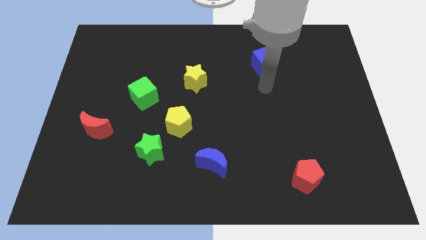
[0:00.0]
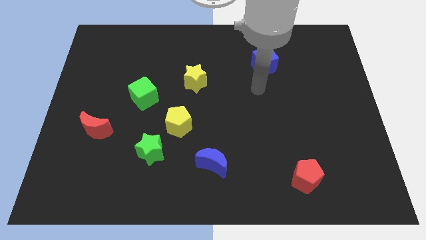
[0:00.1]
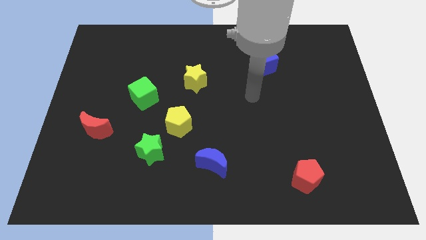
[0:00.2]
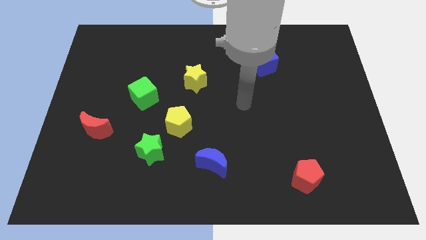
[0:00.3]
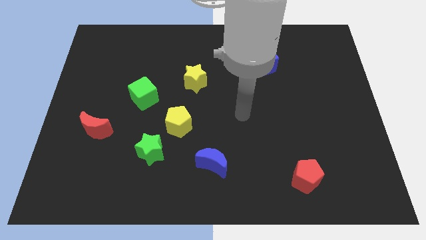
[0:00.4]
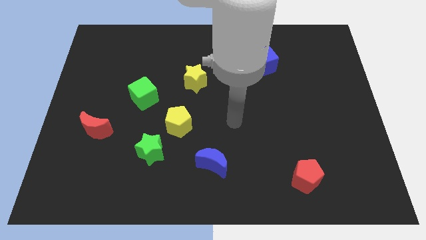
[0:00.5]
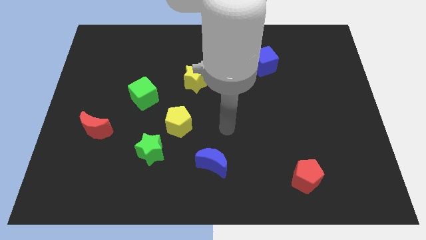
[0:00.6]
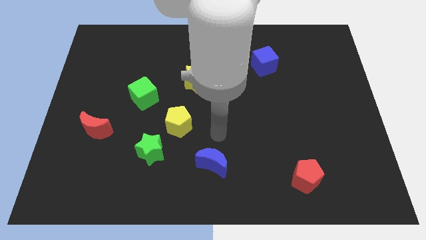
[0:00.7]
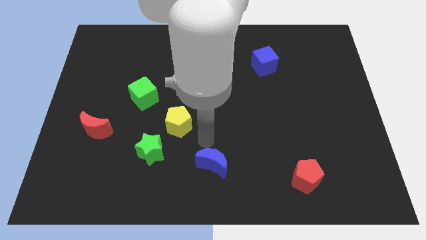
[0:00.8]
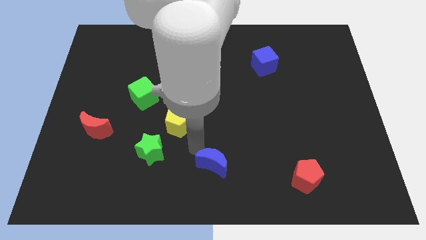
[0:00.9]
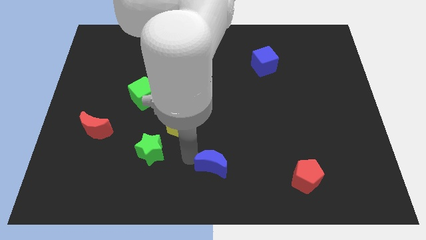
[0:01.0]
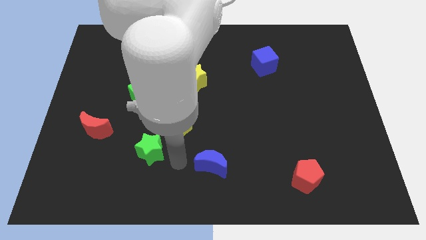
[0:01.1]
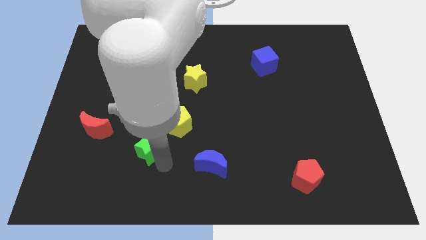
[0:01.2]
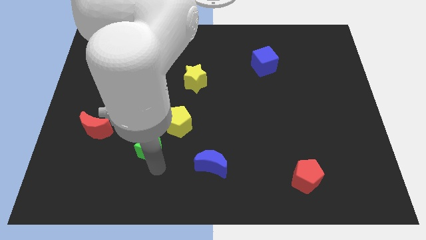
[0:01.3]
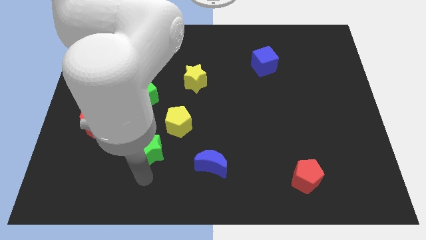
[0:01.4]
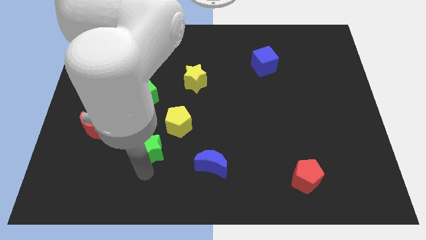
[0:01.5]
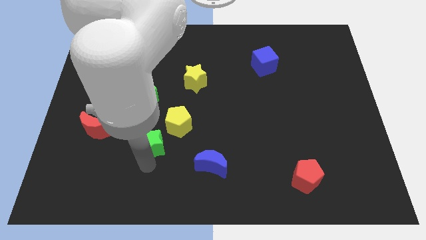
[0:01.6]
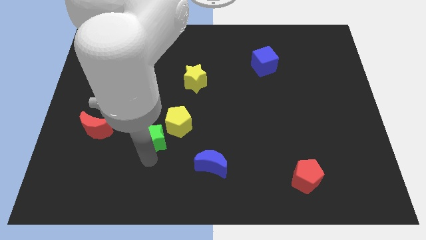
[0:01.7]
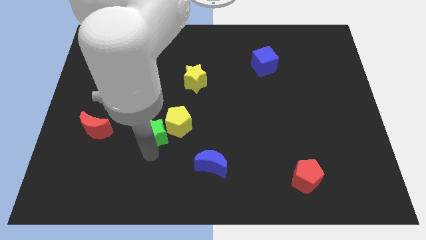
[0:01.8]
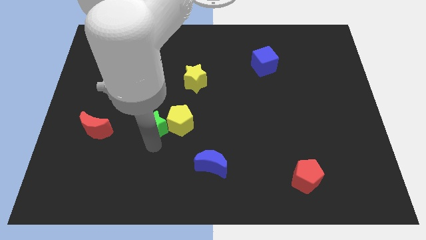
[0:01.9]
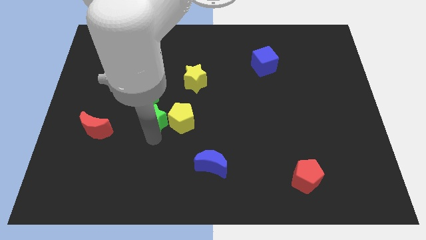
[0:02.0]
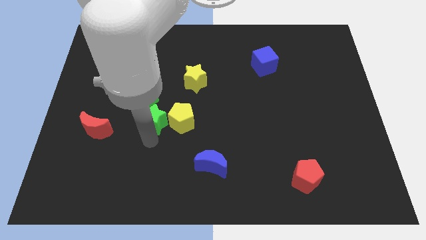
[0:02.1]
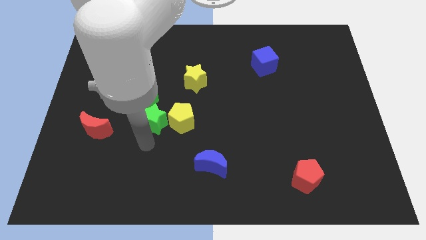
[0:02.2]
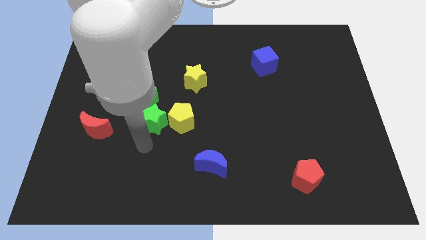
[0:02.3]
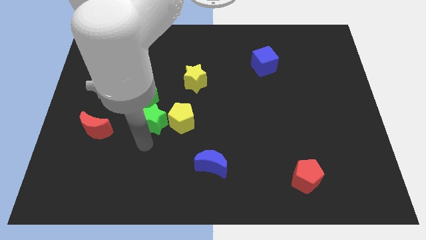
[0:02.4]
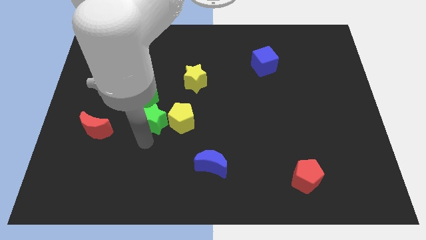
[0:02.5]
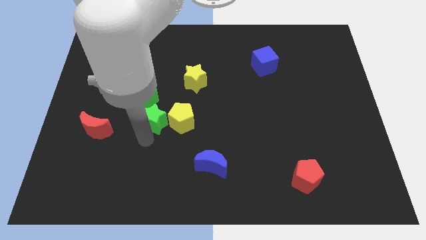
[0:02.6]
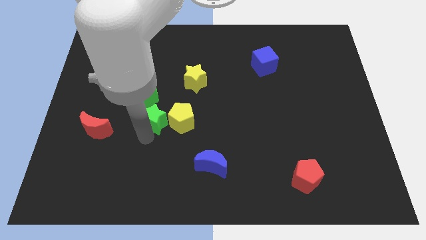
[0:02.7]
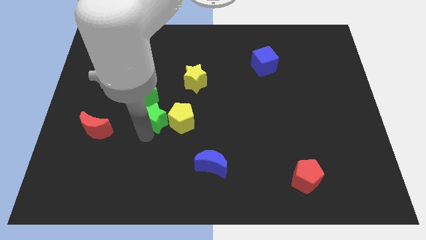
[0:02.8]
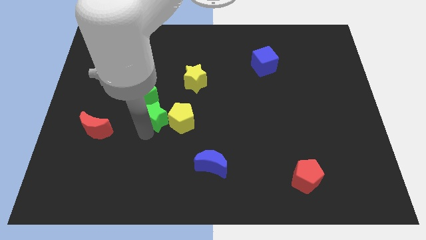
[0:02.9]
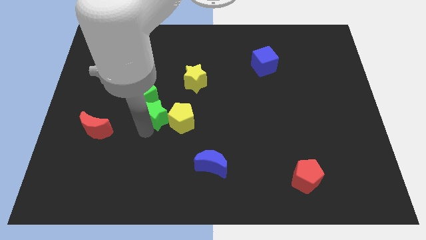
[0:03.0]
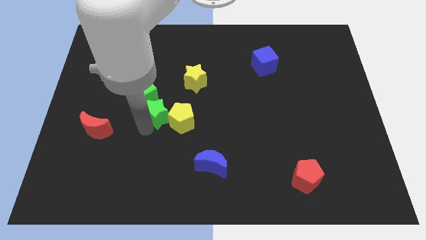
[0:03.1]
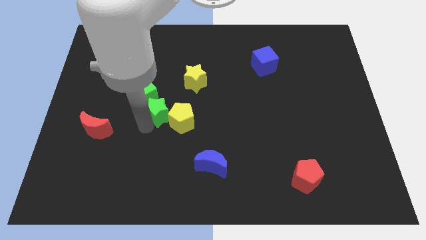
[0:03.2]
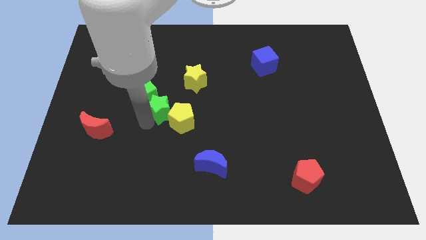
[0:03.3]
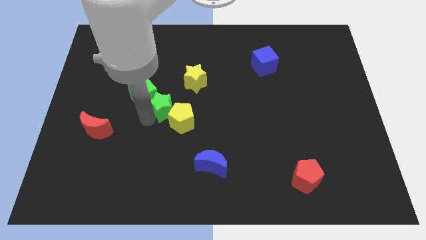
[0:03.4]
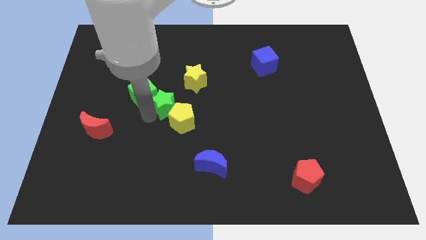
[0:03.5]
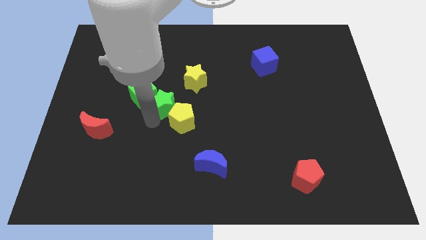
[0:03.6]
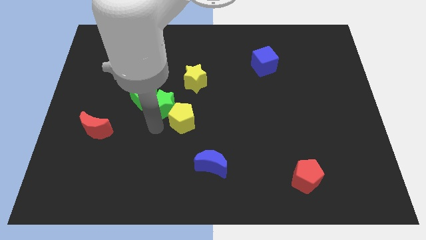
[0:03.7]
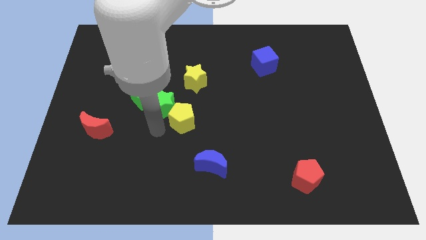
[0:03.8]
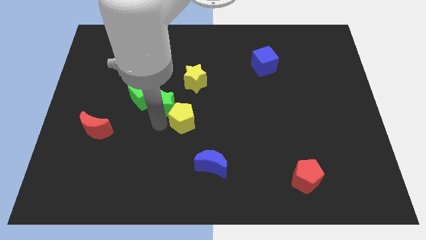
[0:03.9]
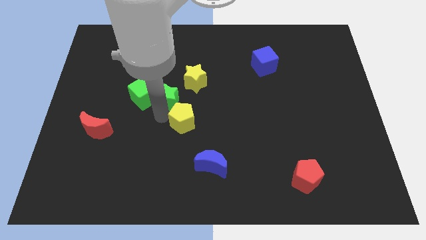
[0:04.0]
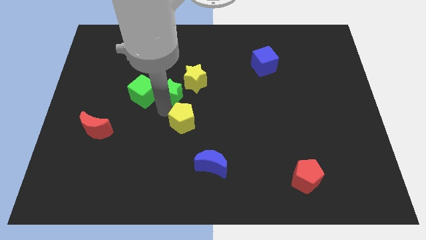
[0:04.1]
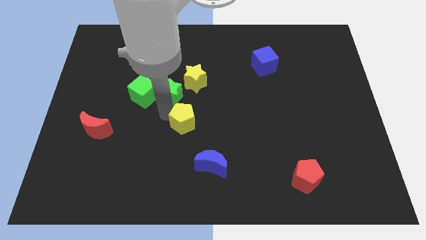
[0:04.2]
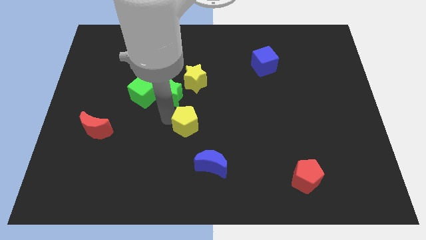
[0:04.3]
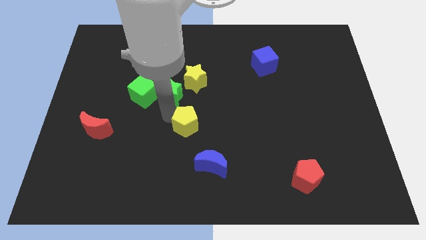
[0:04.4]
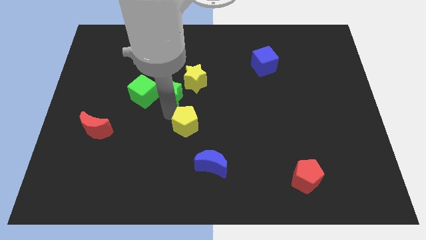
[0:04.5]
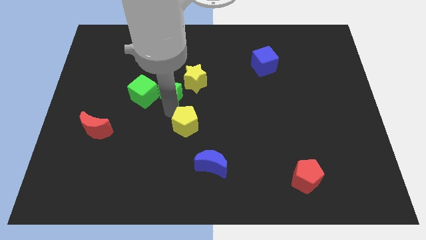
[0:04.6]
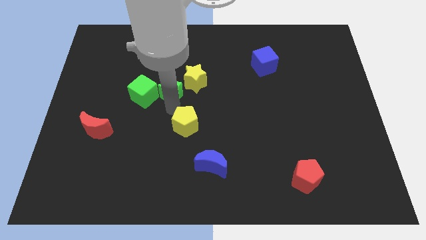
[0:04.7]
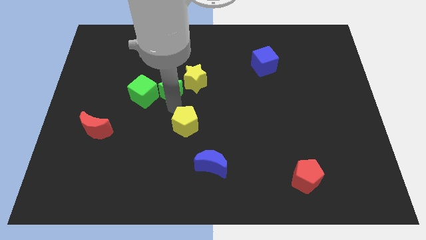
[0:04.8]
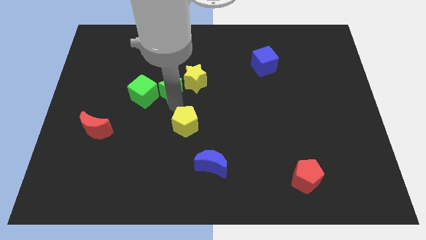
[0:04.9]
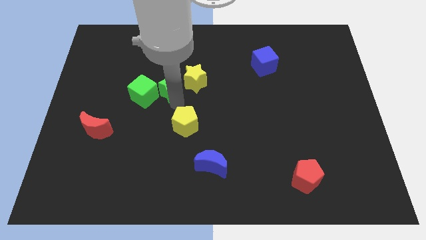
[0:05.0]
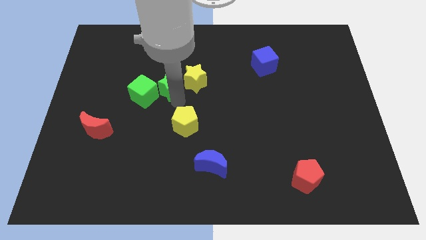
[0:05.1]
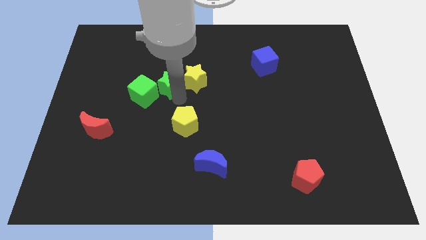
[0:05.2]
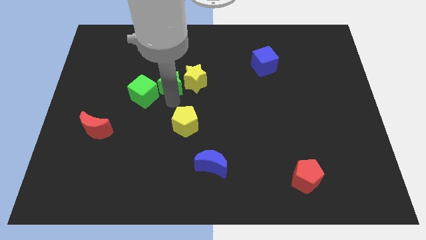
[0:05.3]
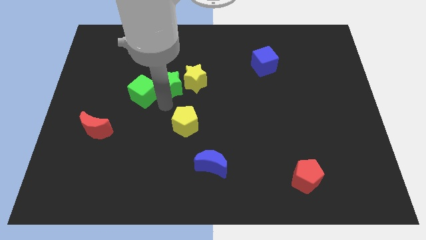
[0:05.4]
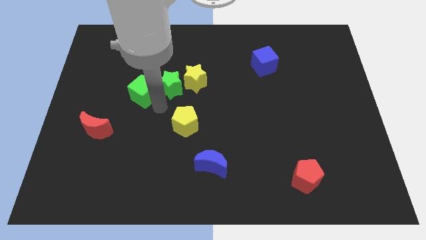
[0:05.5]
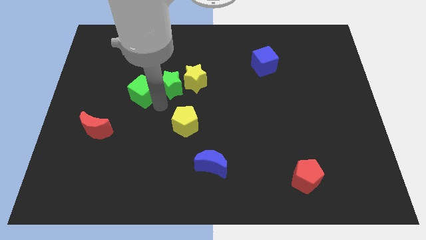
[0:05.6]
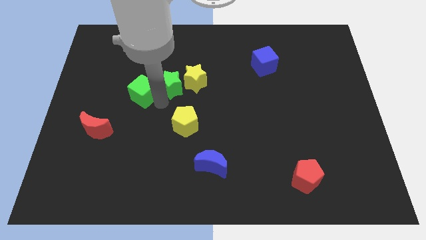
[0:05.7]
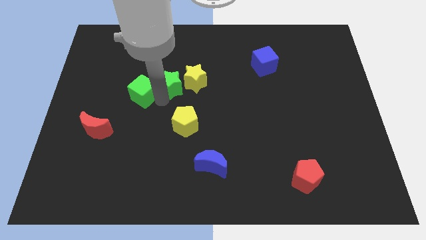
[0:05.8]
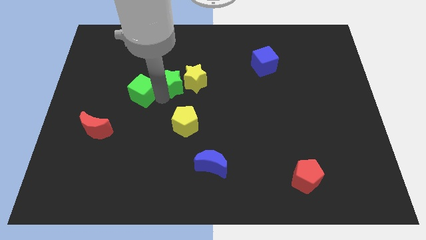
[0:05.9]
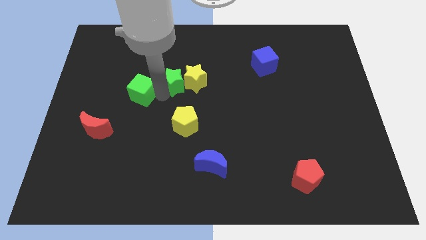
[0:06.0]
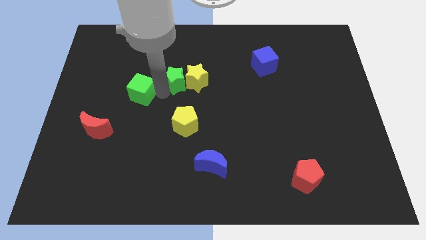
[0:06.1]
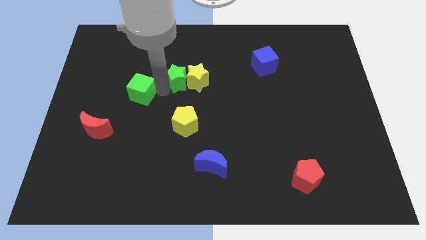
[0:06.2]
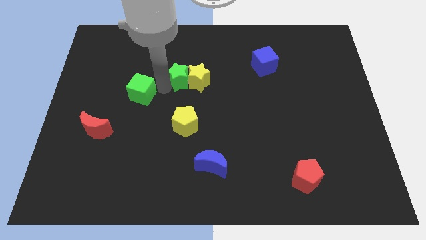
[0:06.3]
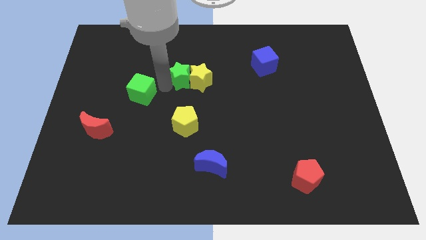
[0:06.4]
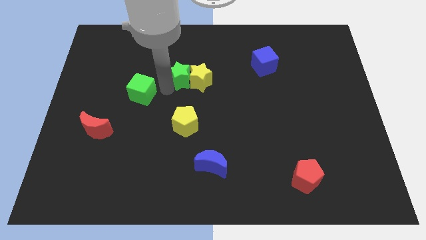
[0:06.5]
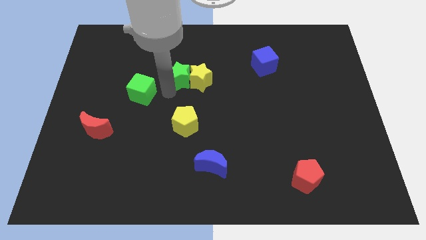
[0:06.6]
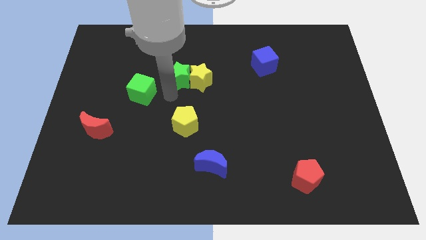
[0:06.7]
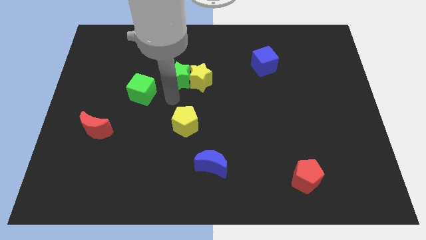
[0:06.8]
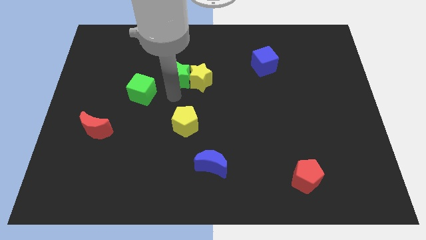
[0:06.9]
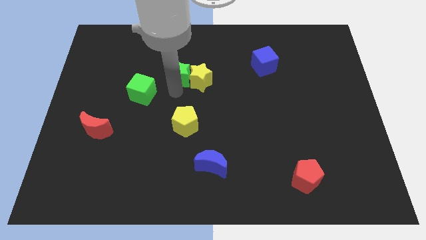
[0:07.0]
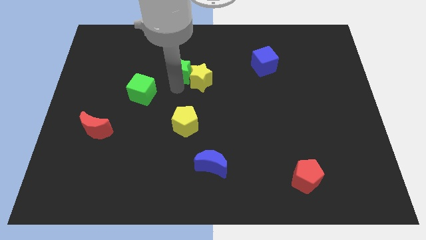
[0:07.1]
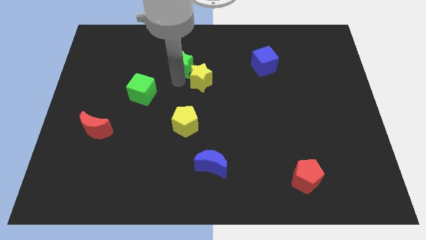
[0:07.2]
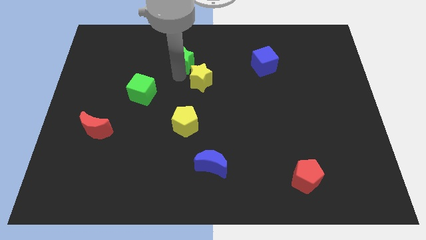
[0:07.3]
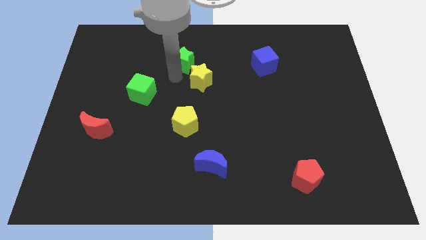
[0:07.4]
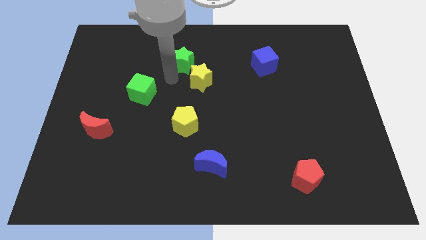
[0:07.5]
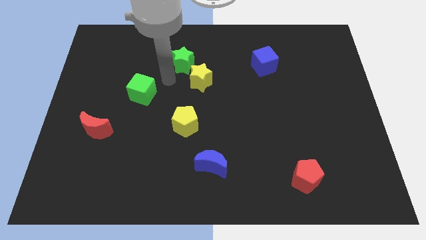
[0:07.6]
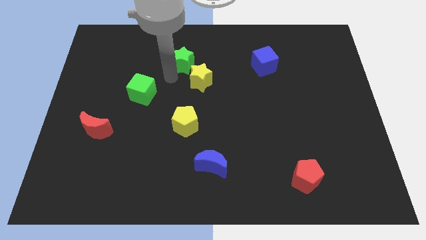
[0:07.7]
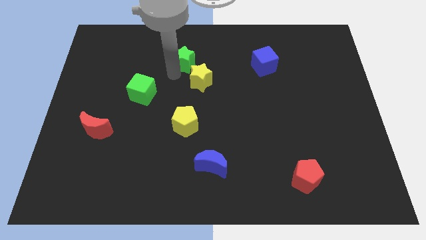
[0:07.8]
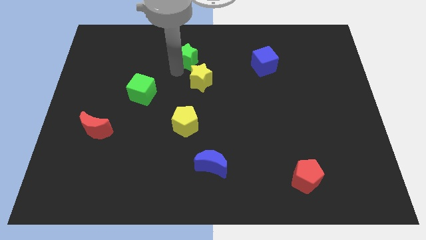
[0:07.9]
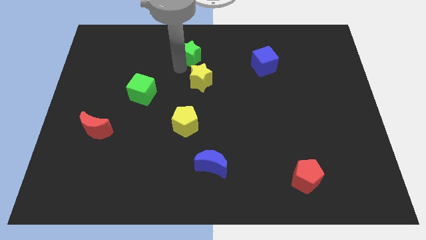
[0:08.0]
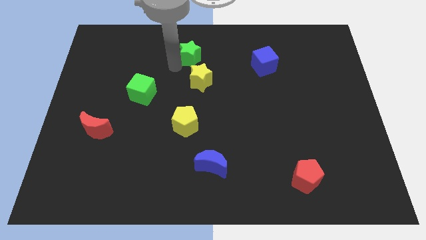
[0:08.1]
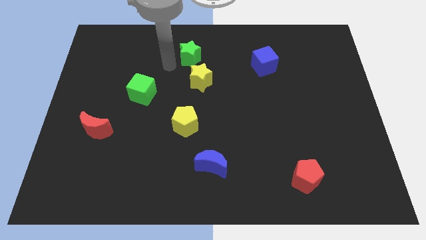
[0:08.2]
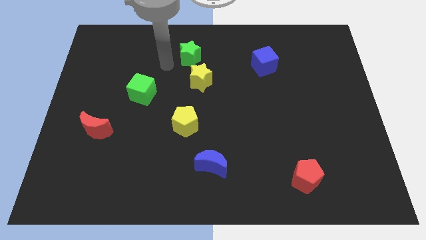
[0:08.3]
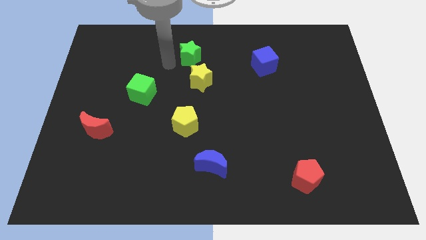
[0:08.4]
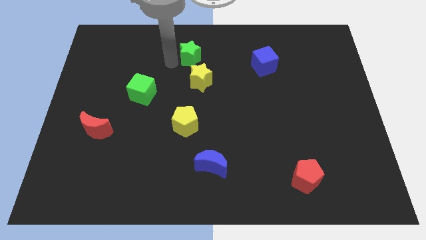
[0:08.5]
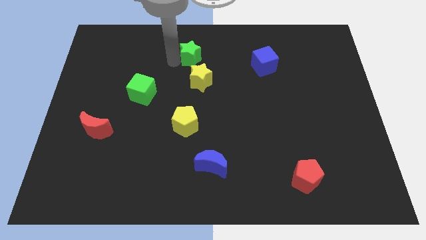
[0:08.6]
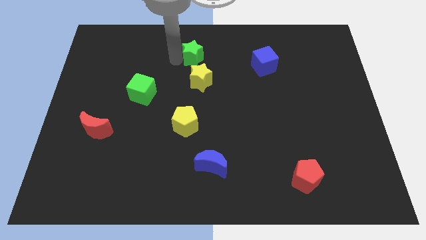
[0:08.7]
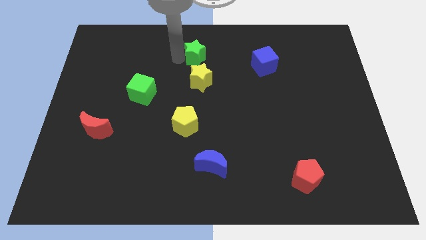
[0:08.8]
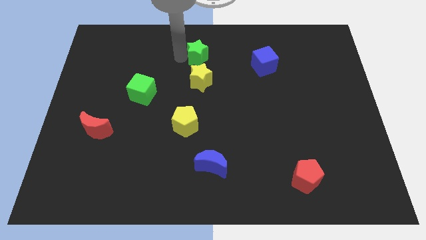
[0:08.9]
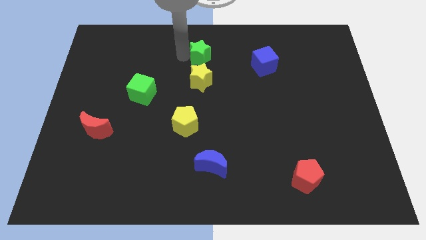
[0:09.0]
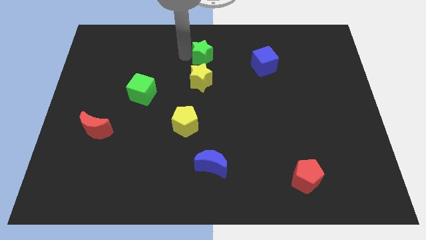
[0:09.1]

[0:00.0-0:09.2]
slide the green star to the top
